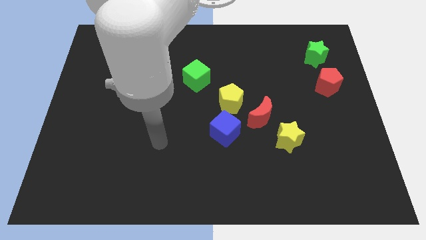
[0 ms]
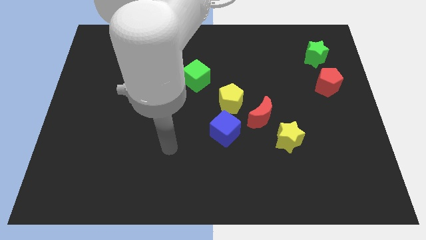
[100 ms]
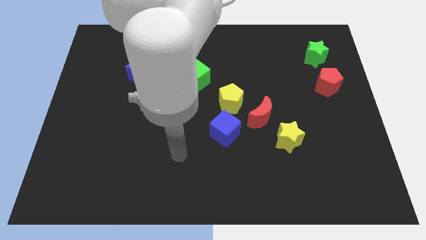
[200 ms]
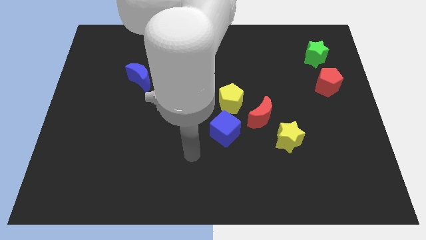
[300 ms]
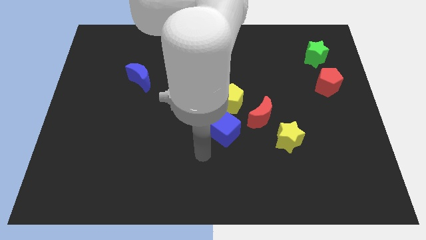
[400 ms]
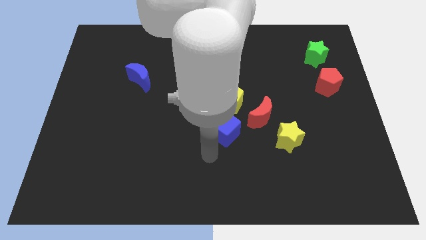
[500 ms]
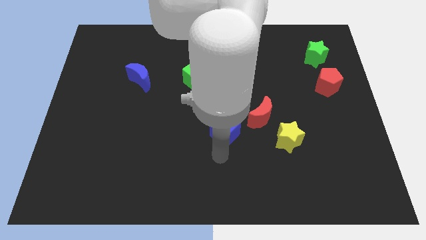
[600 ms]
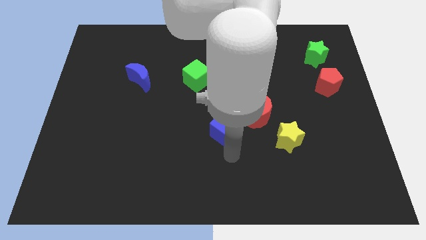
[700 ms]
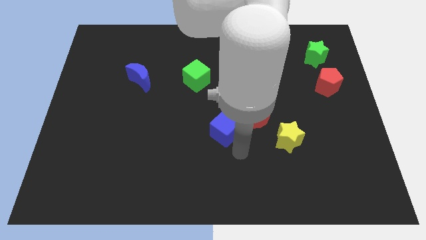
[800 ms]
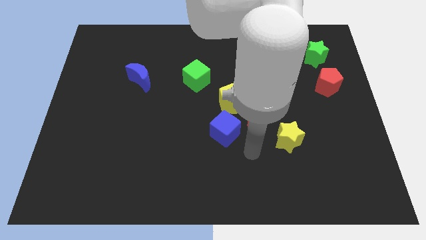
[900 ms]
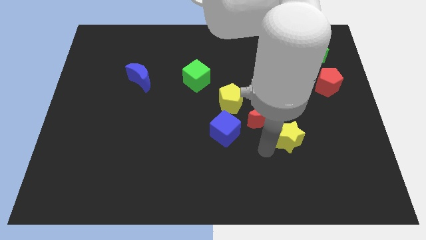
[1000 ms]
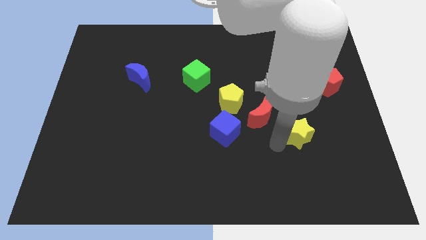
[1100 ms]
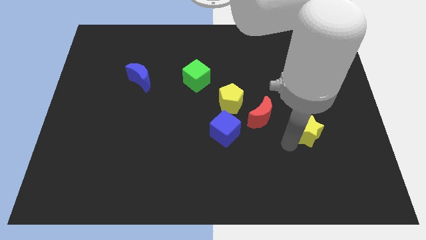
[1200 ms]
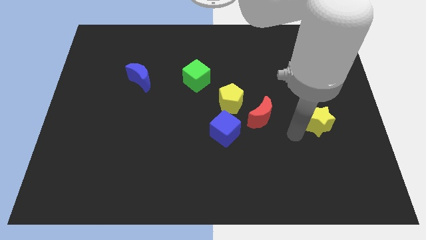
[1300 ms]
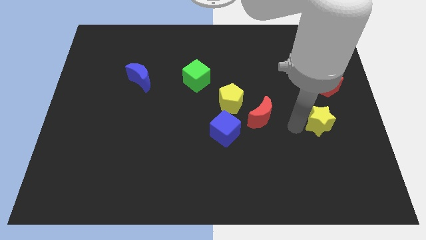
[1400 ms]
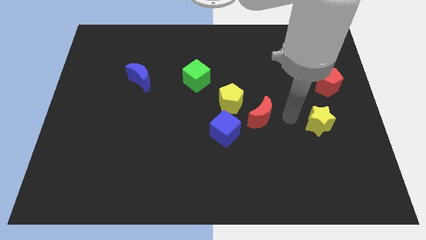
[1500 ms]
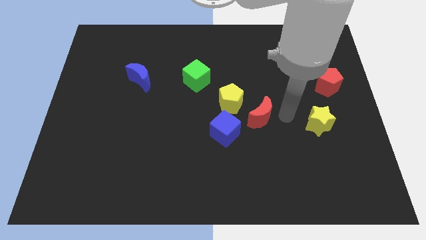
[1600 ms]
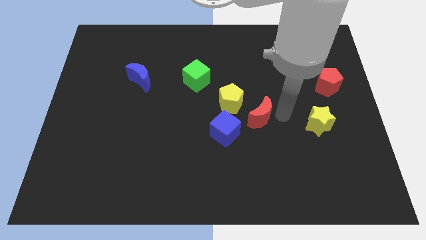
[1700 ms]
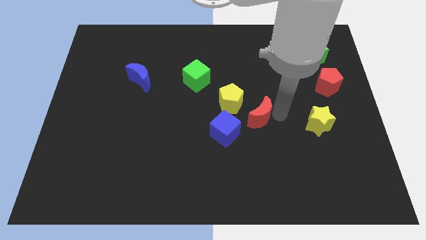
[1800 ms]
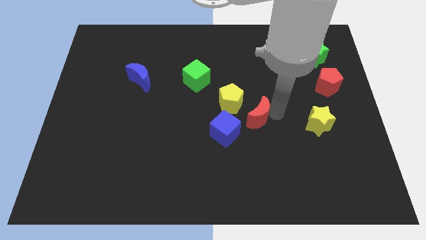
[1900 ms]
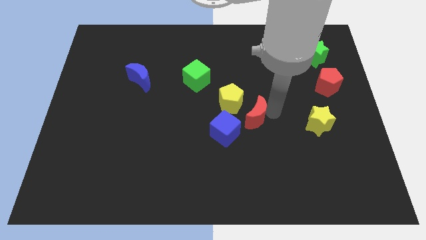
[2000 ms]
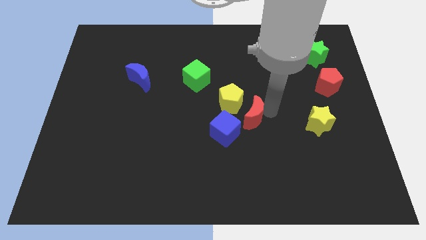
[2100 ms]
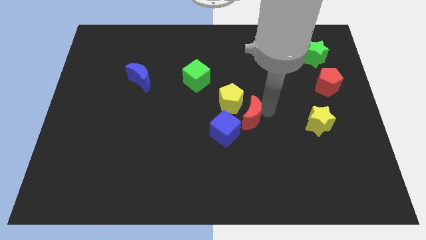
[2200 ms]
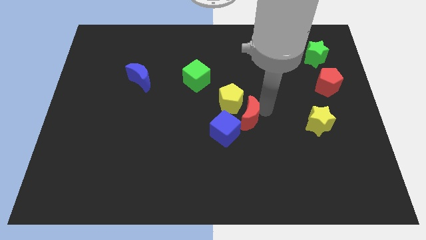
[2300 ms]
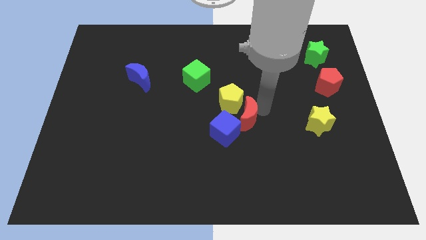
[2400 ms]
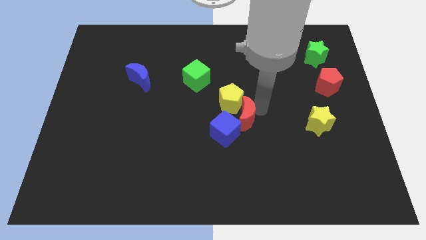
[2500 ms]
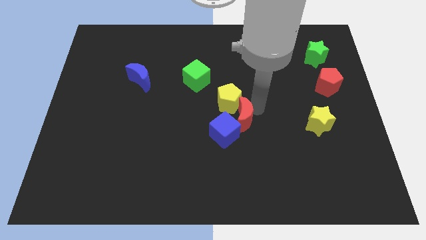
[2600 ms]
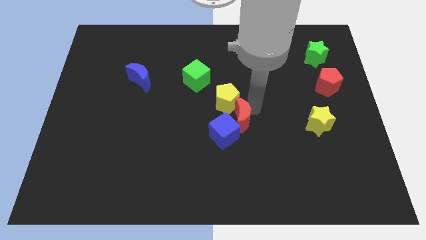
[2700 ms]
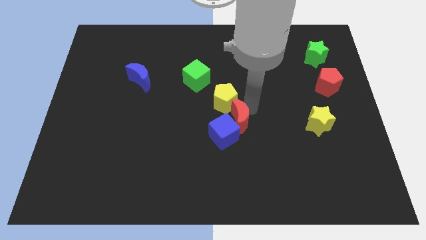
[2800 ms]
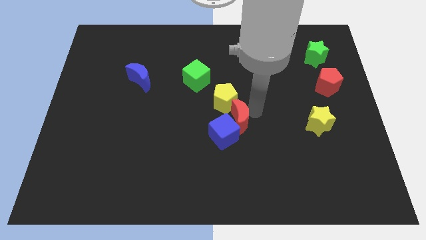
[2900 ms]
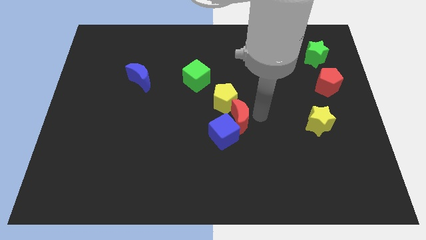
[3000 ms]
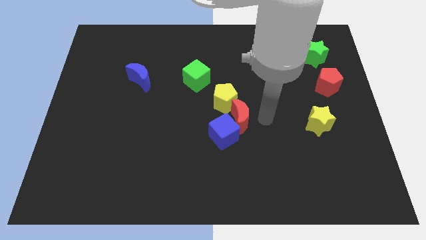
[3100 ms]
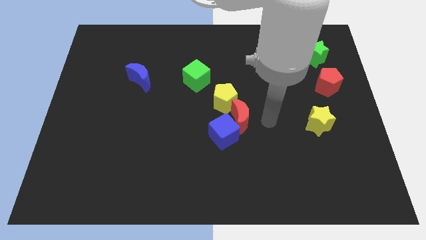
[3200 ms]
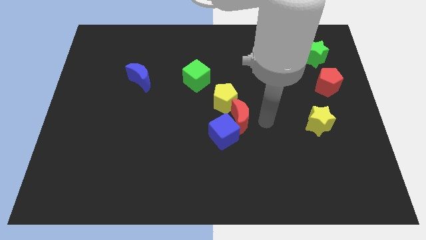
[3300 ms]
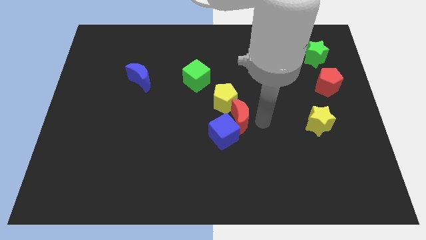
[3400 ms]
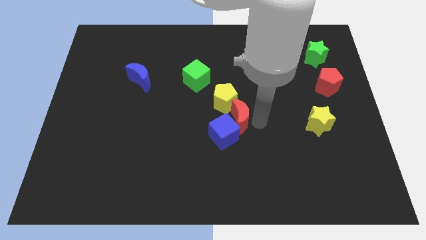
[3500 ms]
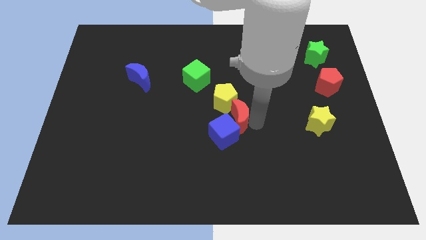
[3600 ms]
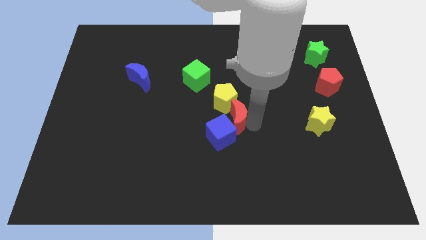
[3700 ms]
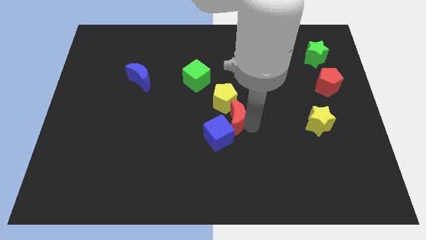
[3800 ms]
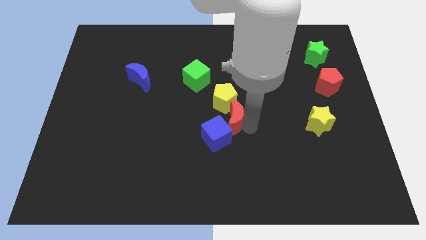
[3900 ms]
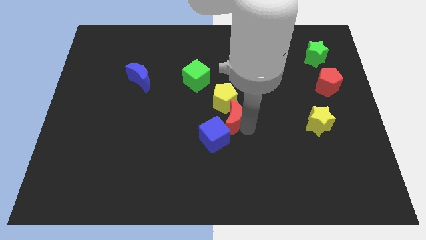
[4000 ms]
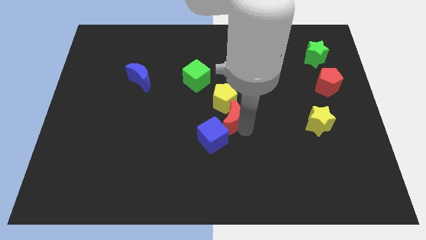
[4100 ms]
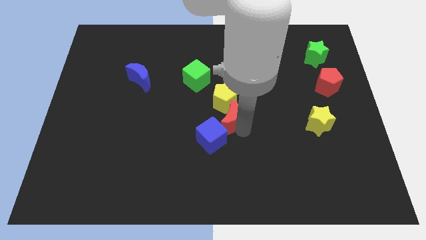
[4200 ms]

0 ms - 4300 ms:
slide the red moon a bit left

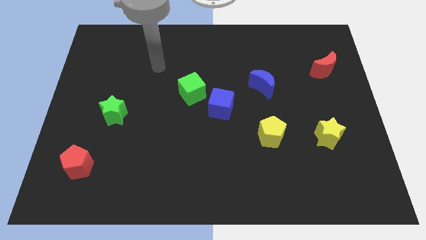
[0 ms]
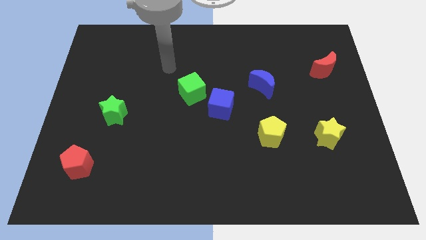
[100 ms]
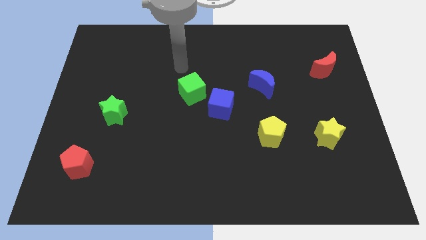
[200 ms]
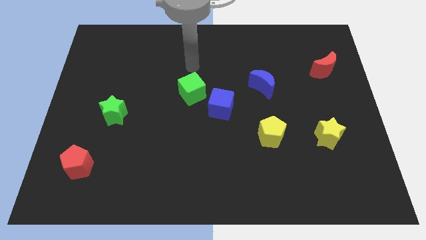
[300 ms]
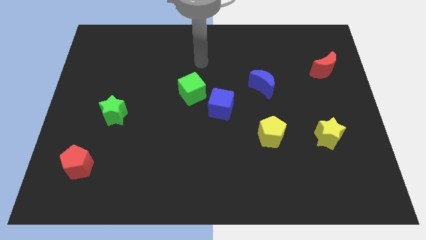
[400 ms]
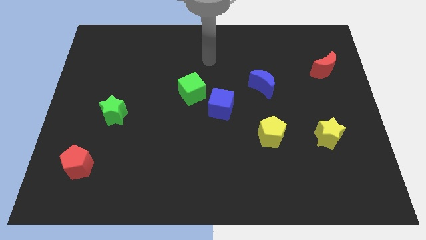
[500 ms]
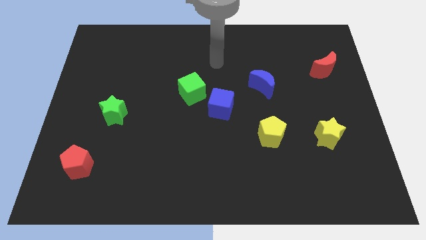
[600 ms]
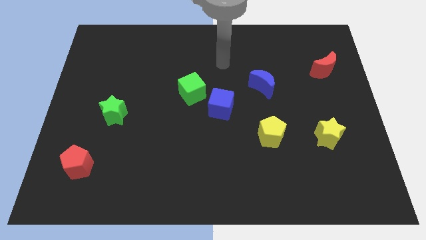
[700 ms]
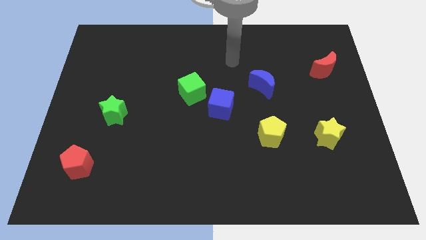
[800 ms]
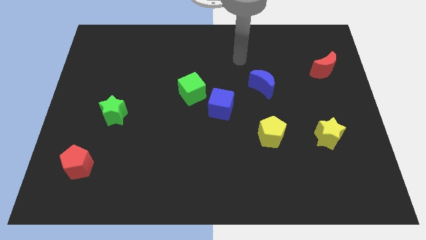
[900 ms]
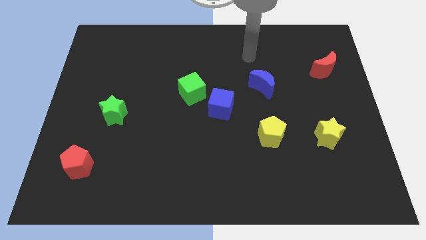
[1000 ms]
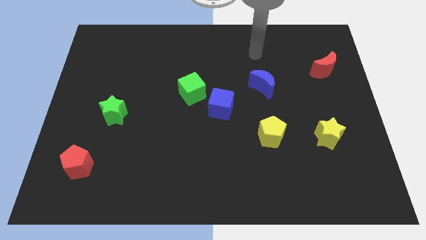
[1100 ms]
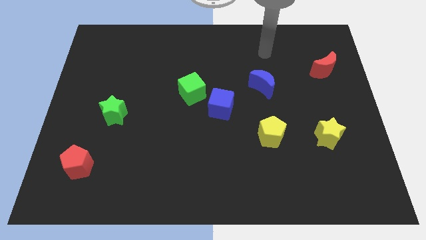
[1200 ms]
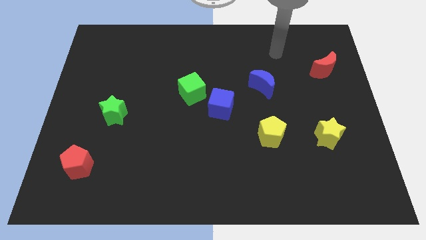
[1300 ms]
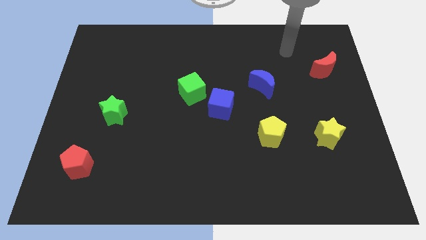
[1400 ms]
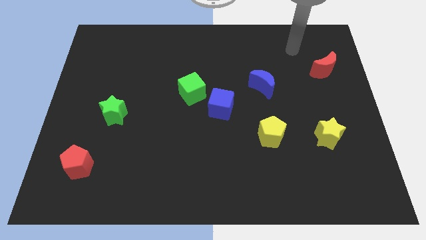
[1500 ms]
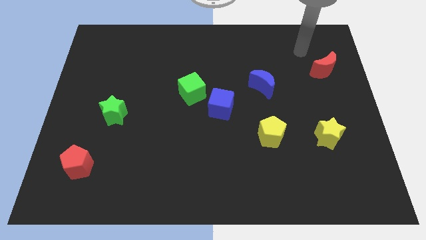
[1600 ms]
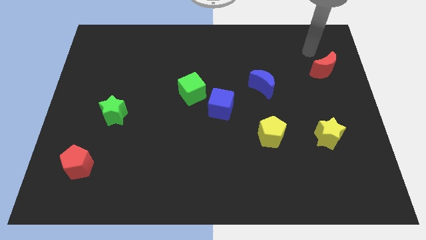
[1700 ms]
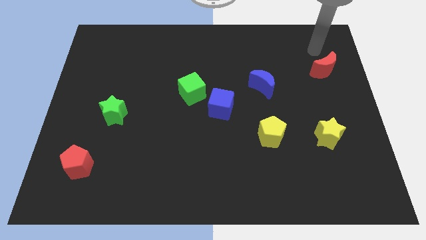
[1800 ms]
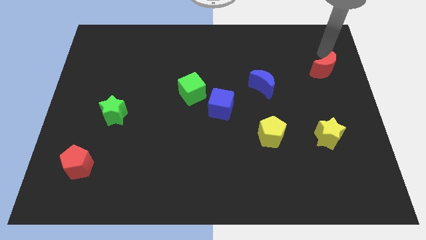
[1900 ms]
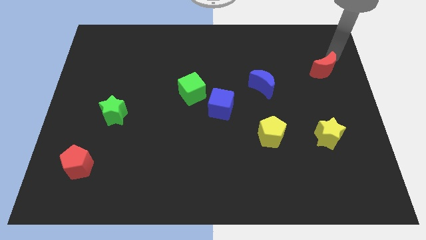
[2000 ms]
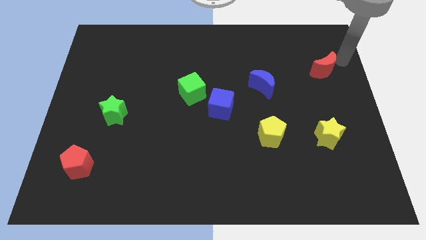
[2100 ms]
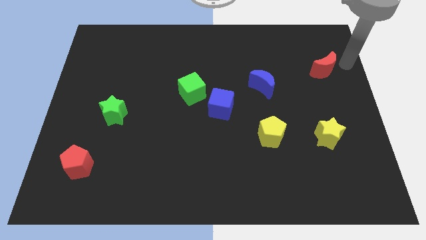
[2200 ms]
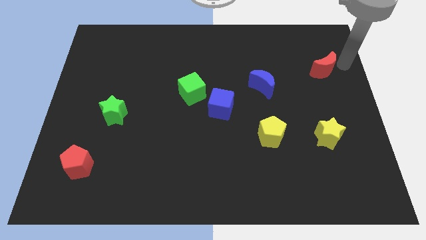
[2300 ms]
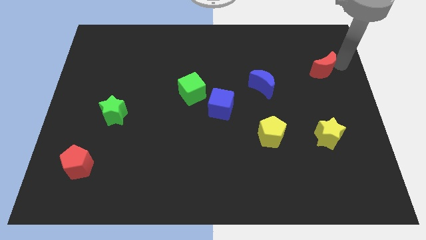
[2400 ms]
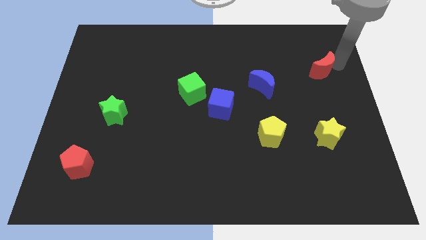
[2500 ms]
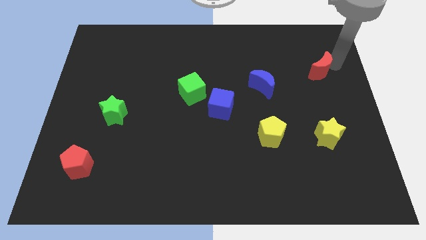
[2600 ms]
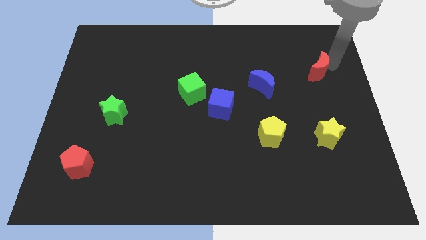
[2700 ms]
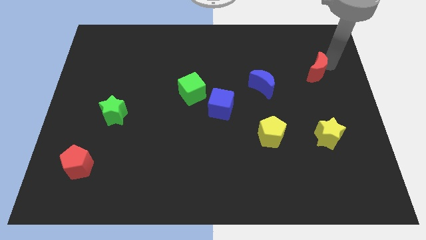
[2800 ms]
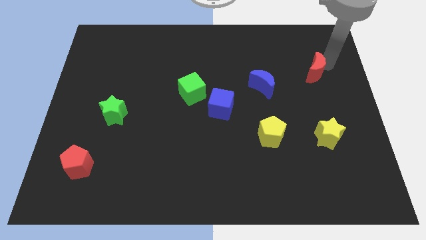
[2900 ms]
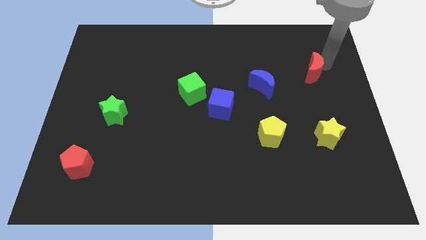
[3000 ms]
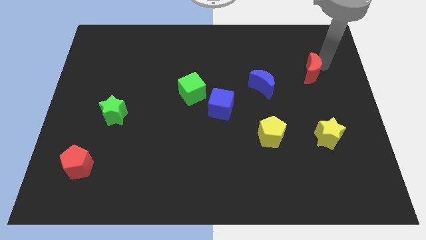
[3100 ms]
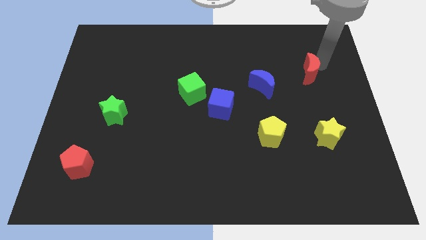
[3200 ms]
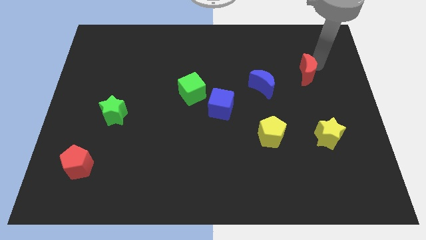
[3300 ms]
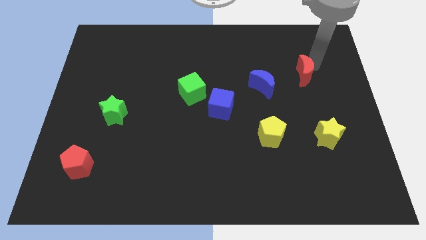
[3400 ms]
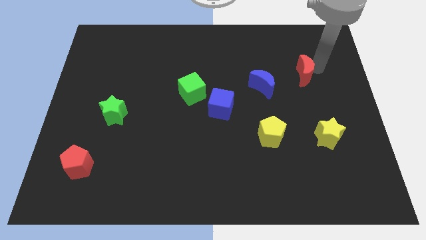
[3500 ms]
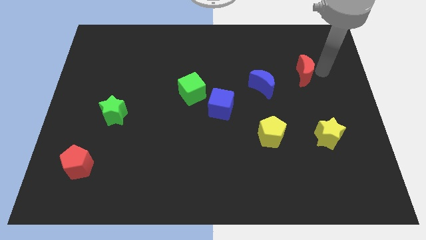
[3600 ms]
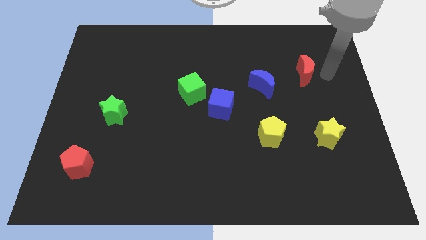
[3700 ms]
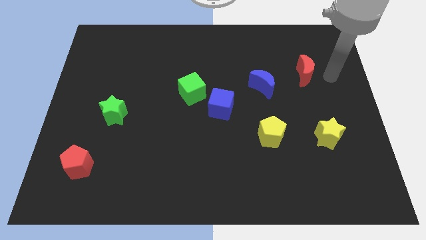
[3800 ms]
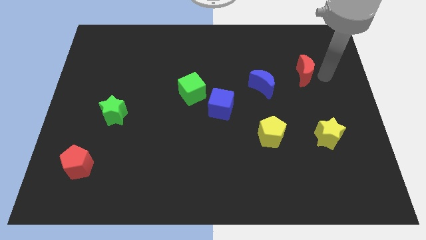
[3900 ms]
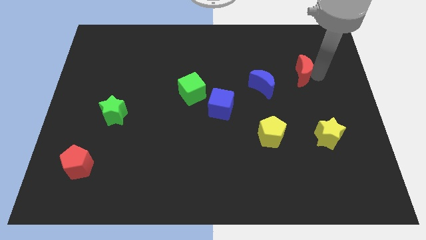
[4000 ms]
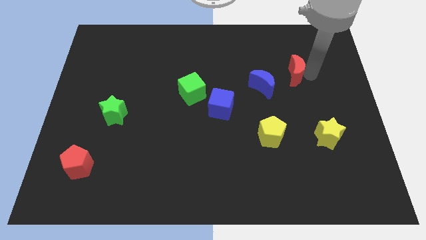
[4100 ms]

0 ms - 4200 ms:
slightly slide the red moon to the left
